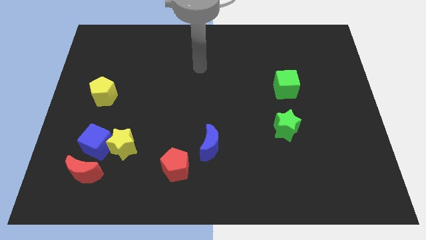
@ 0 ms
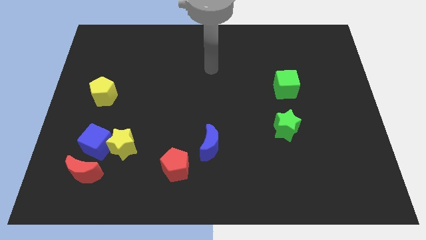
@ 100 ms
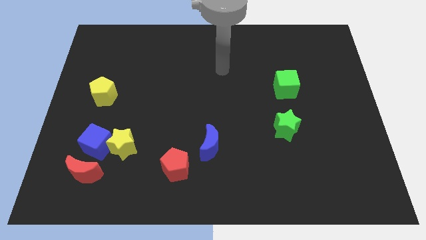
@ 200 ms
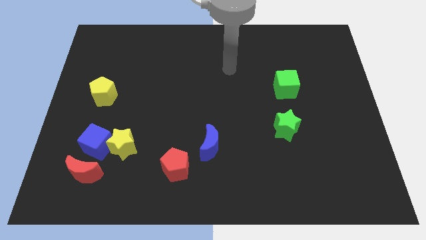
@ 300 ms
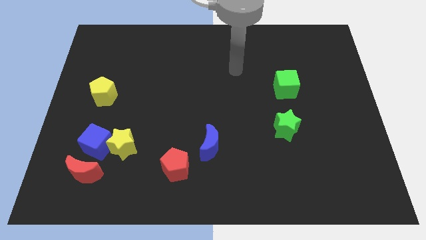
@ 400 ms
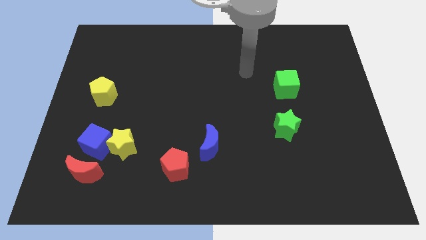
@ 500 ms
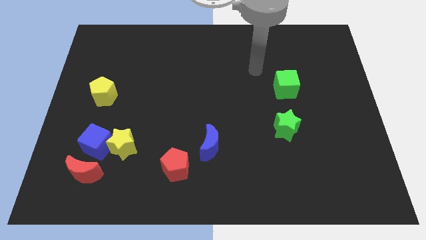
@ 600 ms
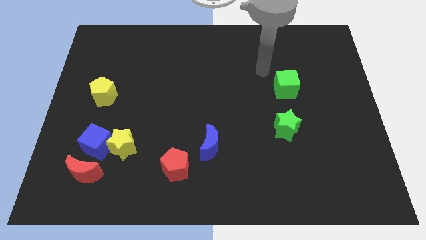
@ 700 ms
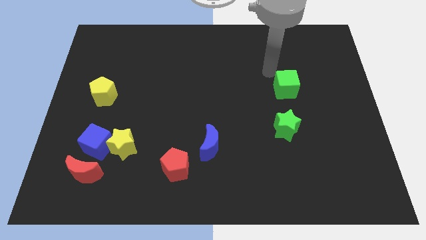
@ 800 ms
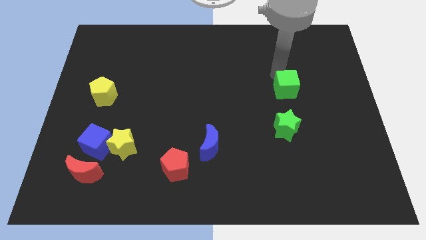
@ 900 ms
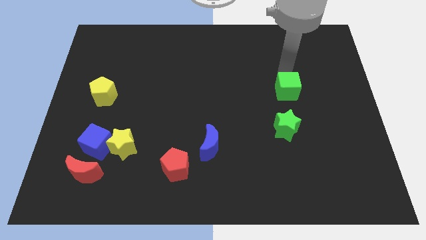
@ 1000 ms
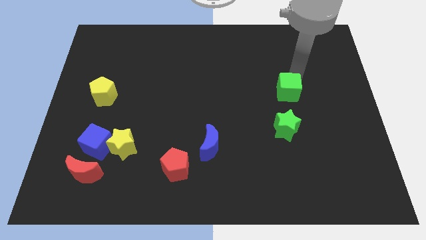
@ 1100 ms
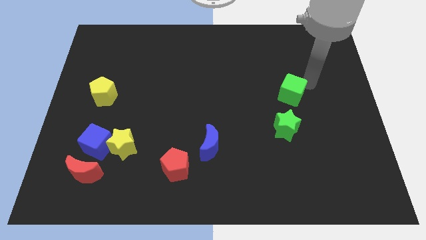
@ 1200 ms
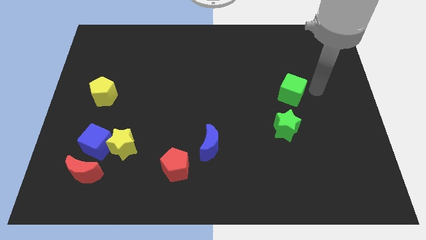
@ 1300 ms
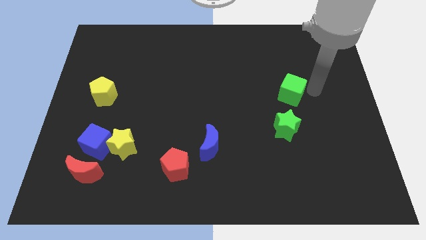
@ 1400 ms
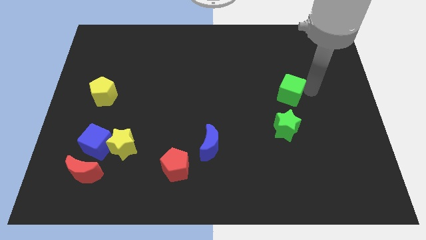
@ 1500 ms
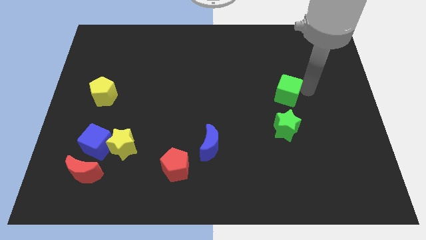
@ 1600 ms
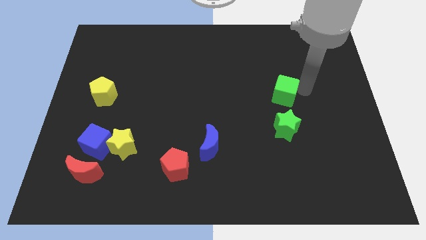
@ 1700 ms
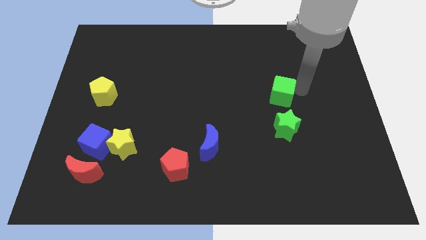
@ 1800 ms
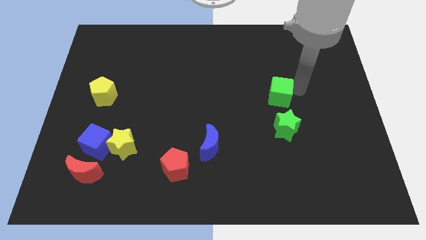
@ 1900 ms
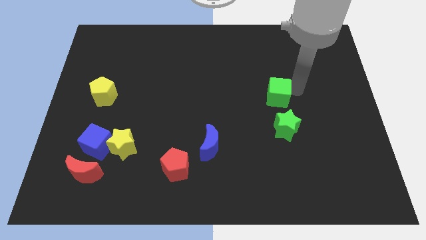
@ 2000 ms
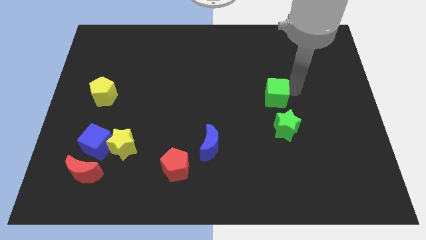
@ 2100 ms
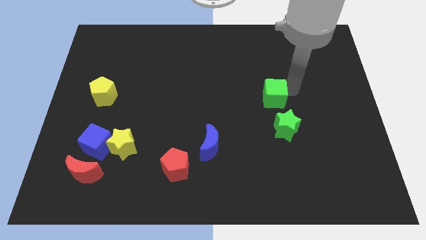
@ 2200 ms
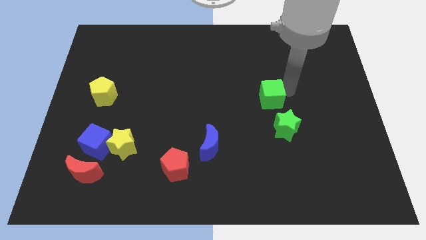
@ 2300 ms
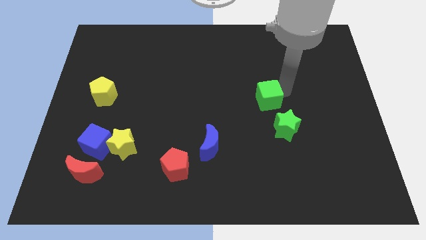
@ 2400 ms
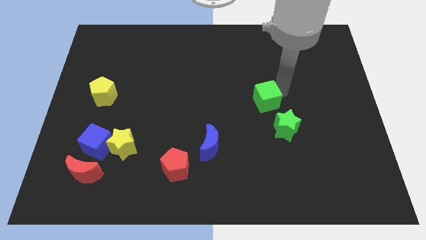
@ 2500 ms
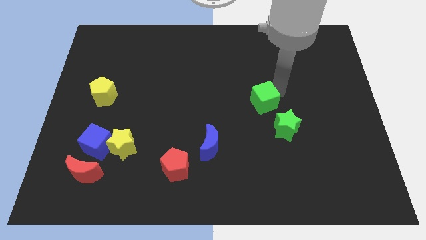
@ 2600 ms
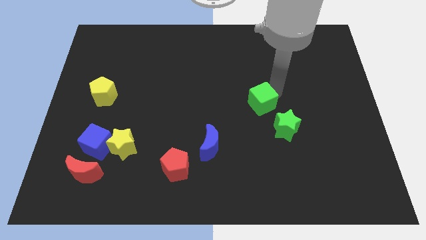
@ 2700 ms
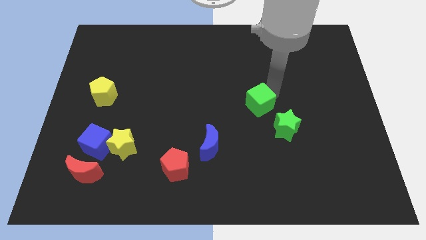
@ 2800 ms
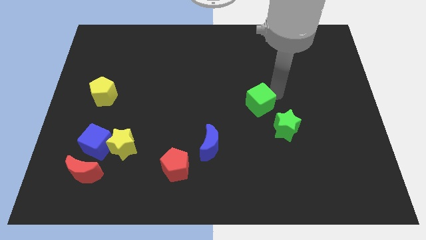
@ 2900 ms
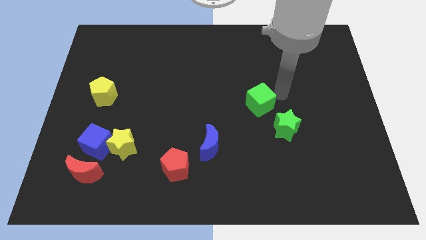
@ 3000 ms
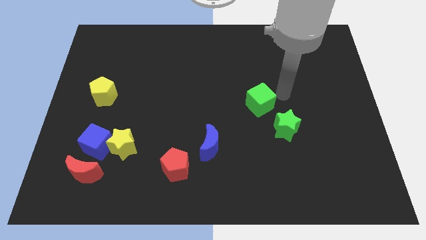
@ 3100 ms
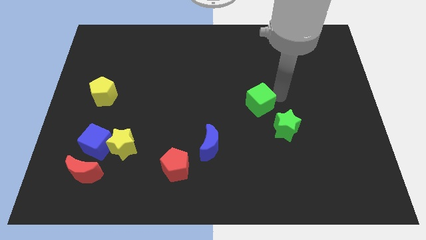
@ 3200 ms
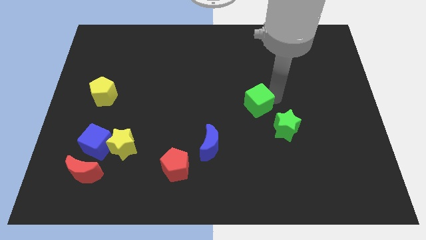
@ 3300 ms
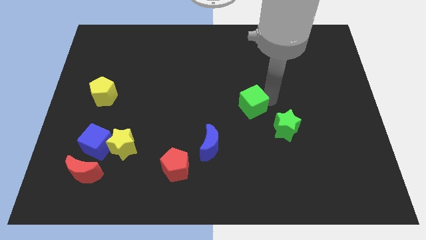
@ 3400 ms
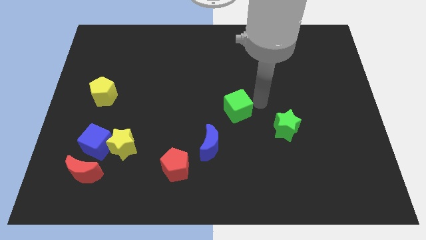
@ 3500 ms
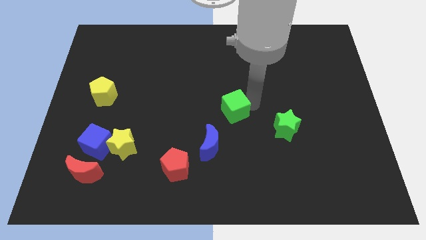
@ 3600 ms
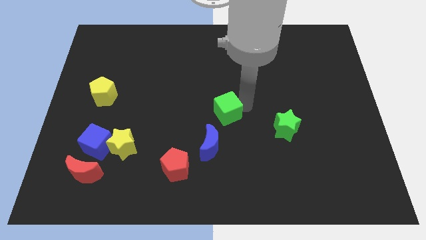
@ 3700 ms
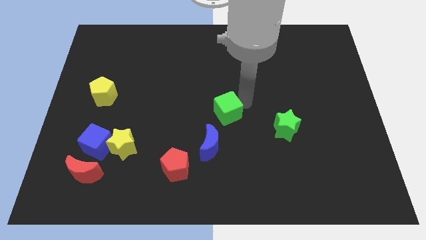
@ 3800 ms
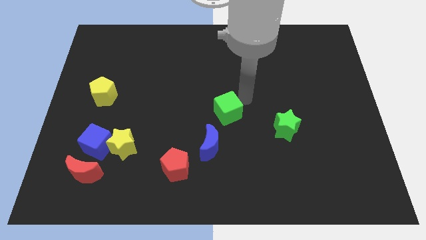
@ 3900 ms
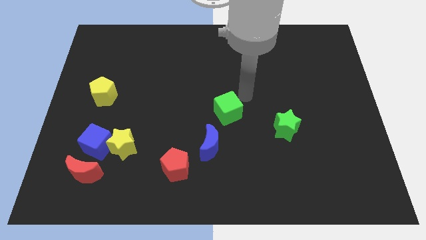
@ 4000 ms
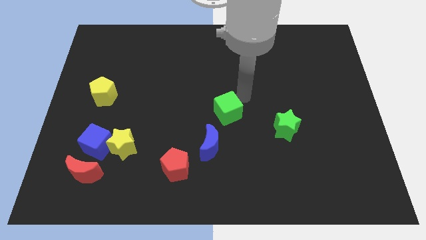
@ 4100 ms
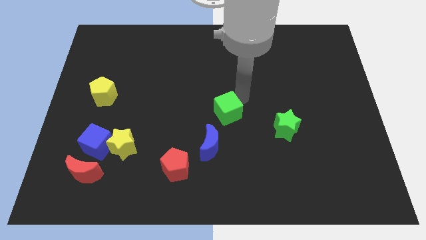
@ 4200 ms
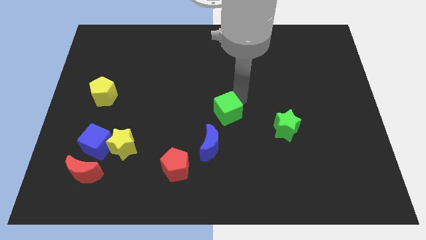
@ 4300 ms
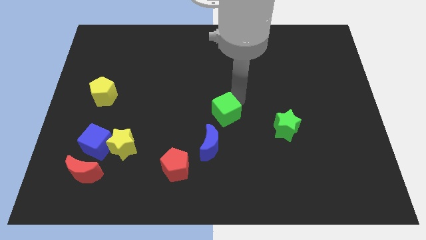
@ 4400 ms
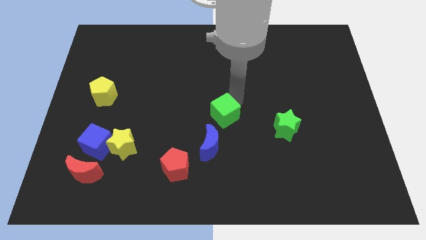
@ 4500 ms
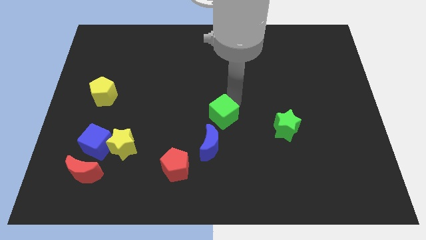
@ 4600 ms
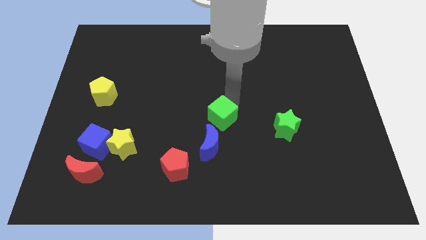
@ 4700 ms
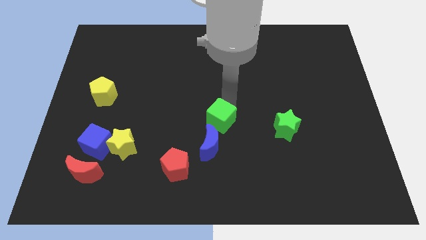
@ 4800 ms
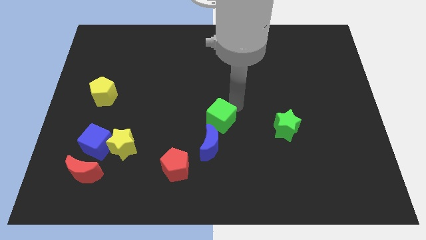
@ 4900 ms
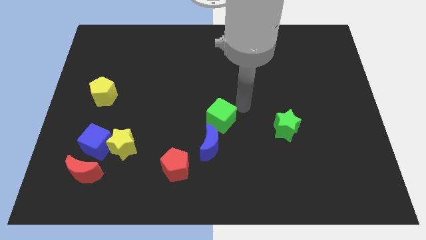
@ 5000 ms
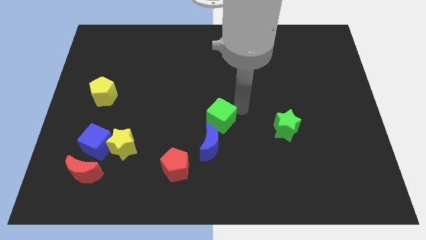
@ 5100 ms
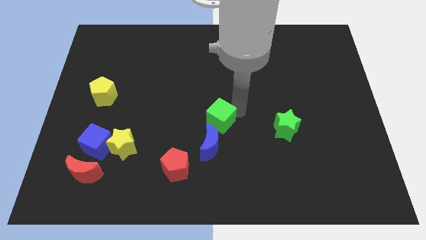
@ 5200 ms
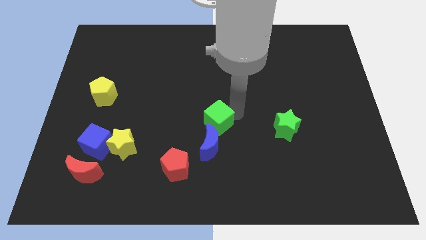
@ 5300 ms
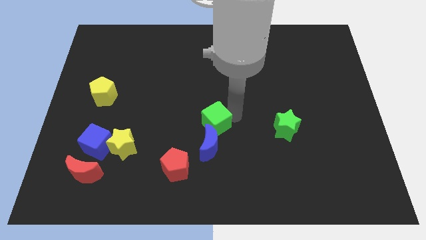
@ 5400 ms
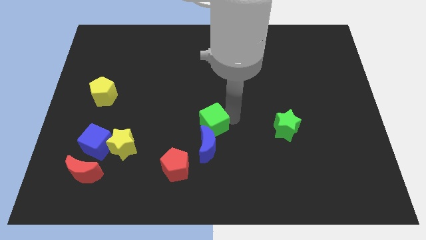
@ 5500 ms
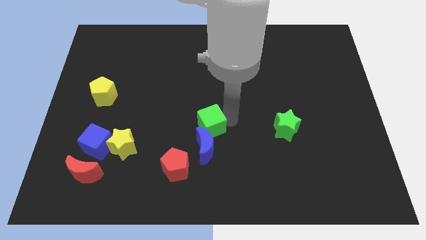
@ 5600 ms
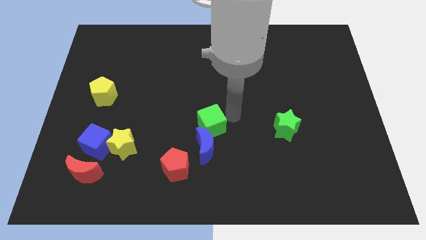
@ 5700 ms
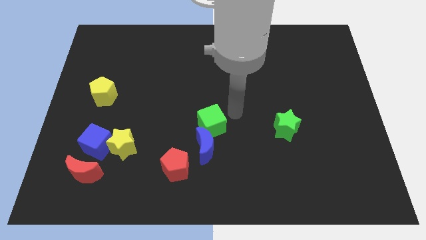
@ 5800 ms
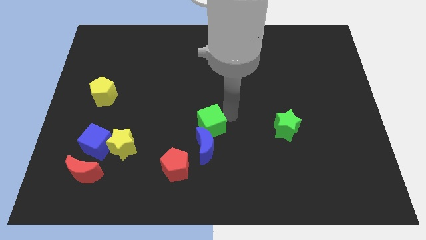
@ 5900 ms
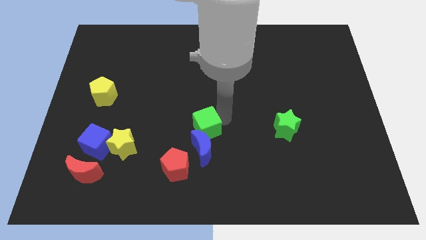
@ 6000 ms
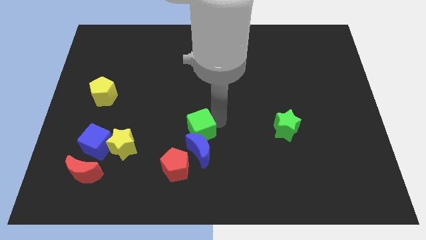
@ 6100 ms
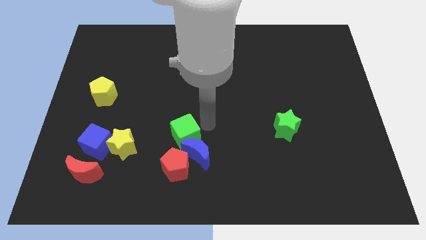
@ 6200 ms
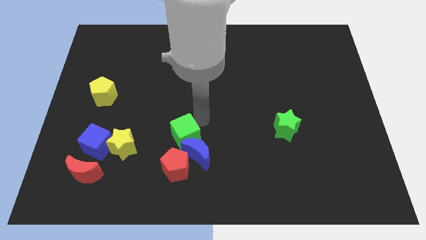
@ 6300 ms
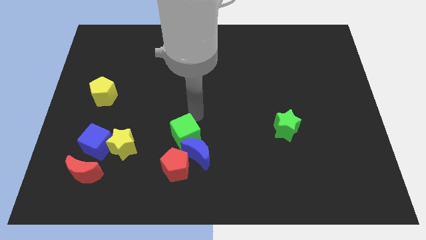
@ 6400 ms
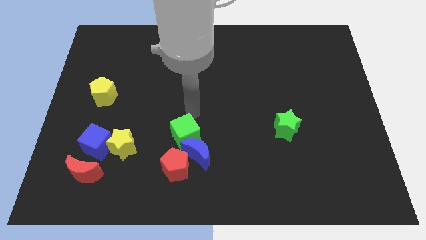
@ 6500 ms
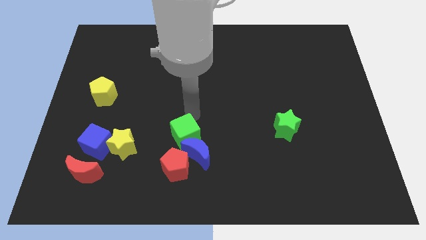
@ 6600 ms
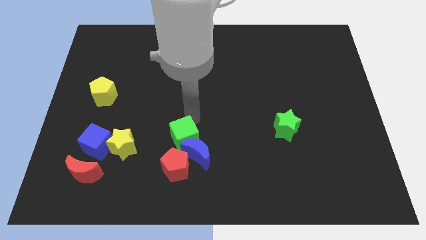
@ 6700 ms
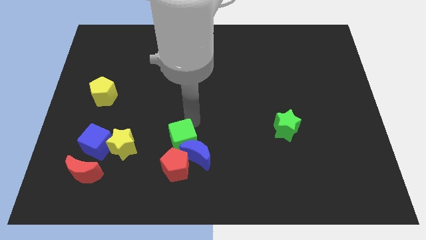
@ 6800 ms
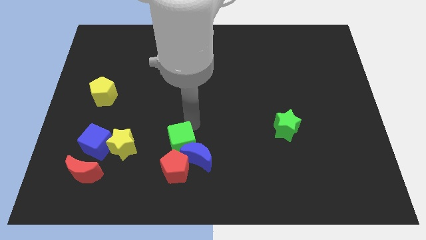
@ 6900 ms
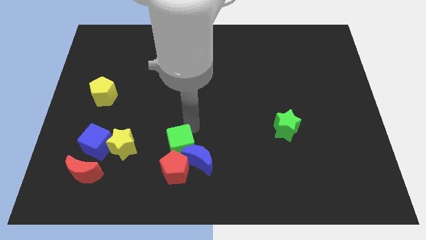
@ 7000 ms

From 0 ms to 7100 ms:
put the green cube towards the red pentagon
